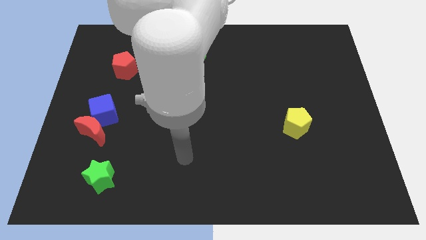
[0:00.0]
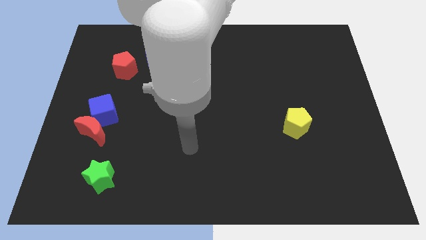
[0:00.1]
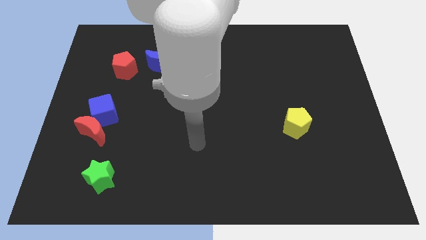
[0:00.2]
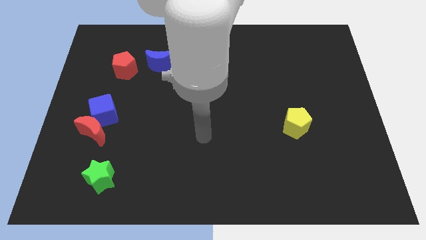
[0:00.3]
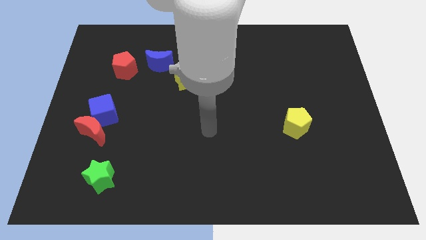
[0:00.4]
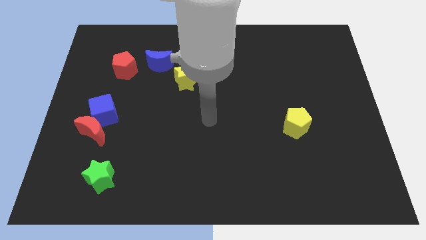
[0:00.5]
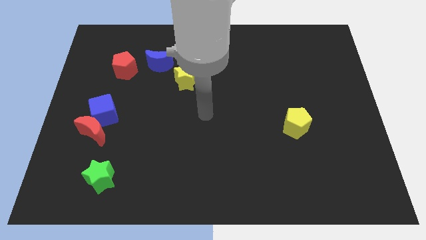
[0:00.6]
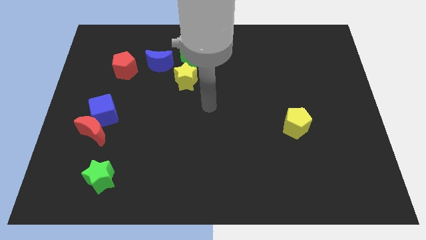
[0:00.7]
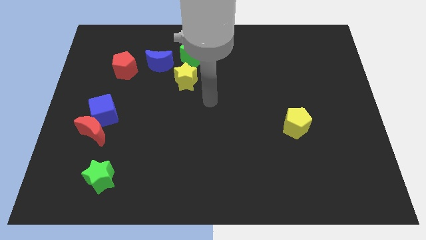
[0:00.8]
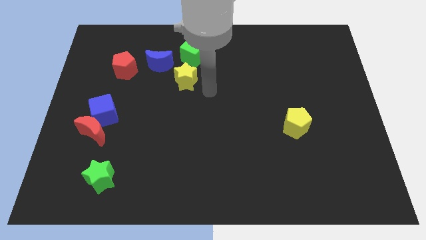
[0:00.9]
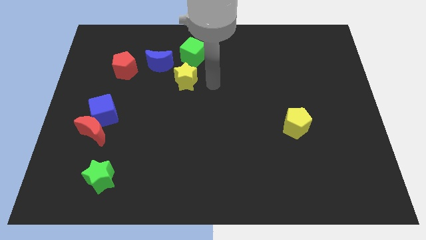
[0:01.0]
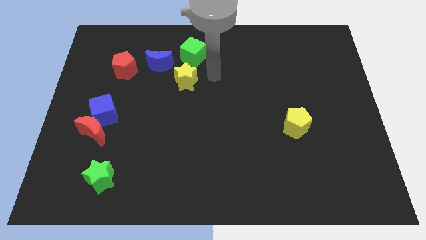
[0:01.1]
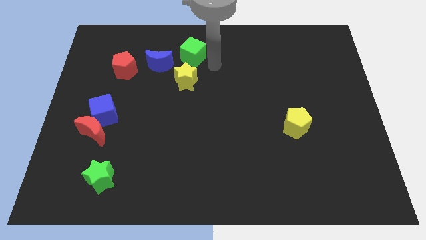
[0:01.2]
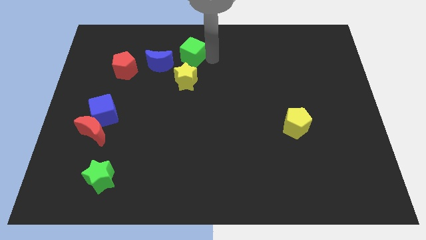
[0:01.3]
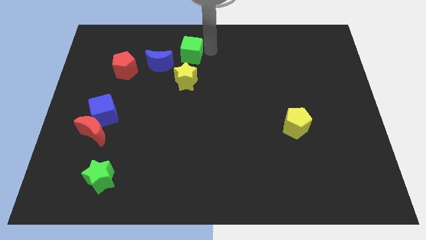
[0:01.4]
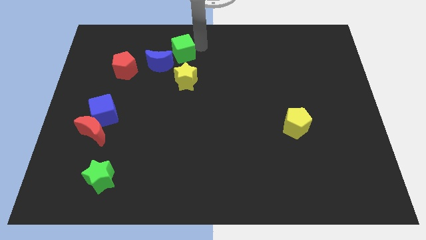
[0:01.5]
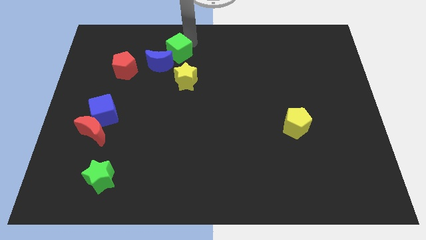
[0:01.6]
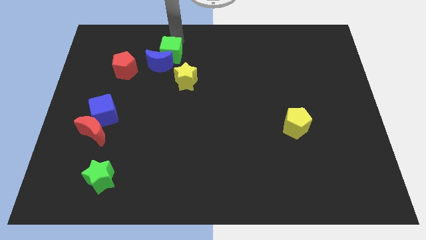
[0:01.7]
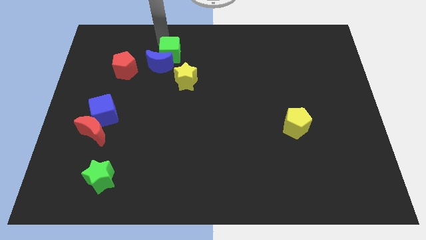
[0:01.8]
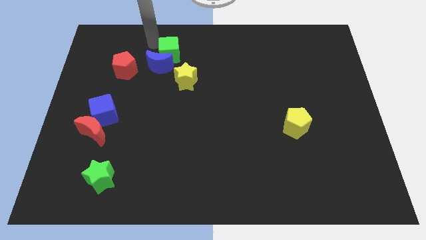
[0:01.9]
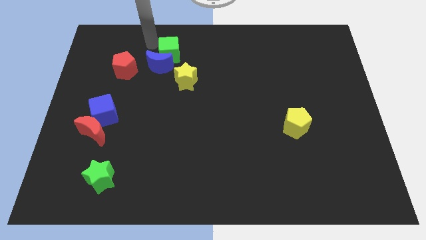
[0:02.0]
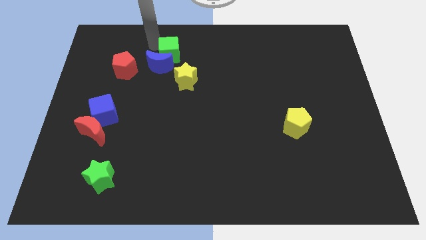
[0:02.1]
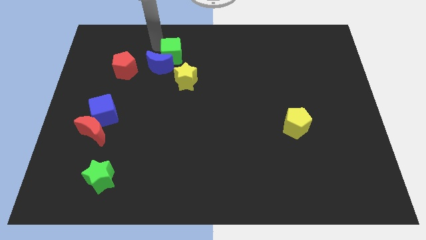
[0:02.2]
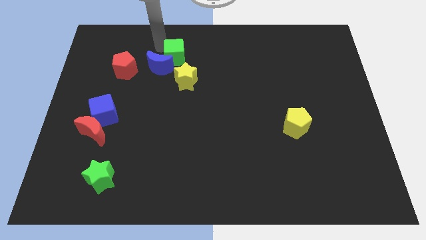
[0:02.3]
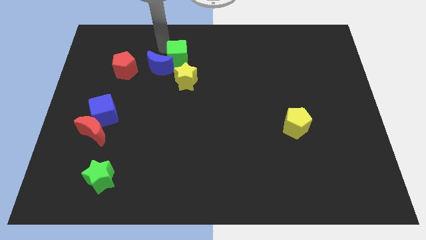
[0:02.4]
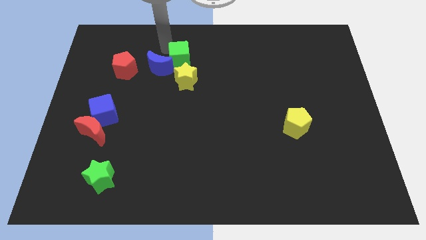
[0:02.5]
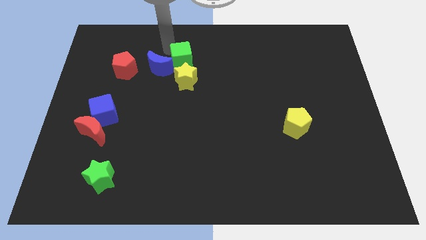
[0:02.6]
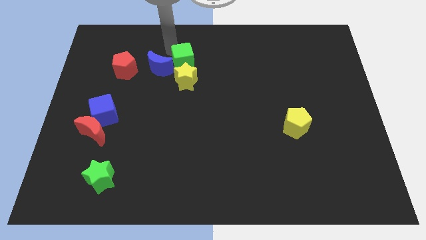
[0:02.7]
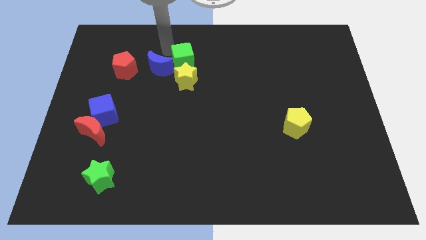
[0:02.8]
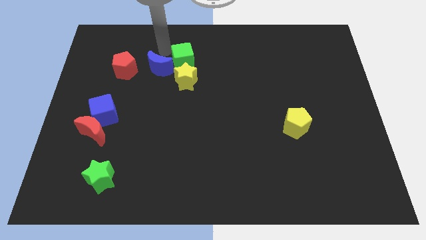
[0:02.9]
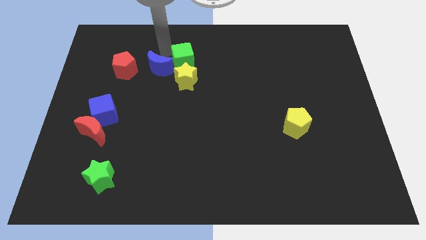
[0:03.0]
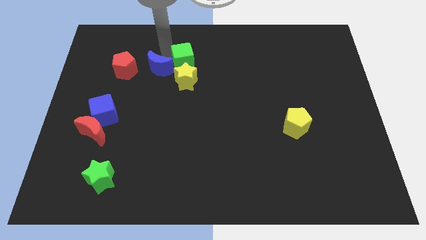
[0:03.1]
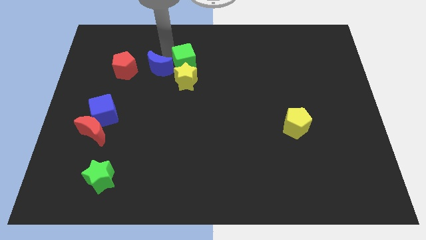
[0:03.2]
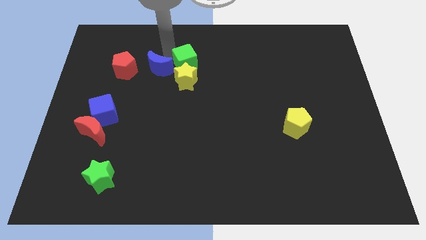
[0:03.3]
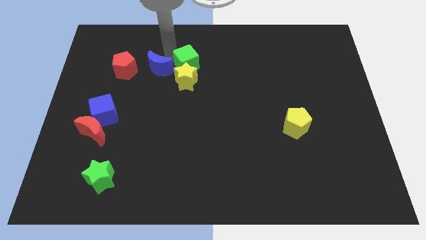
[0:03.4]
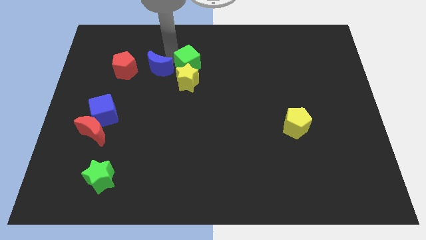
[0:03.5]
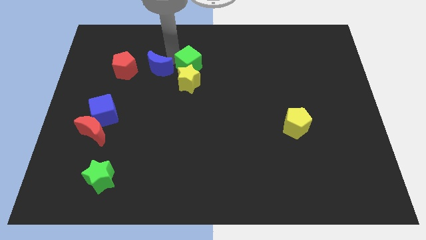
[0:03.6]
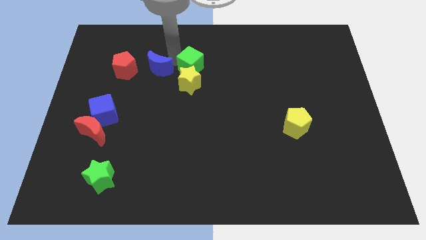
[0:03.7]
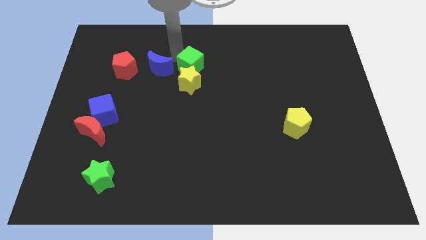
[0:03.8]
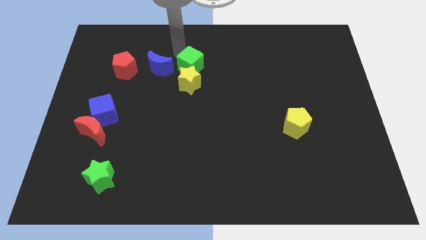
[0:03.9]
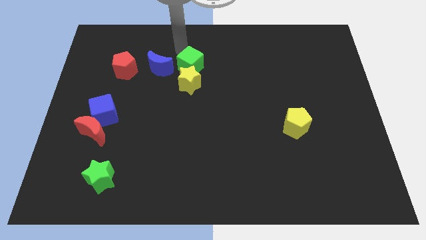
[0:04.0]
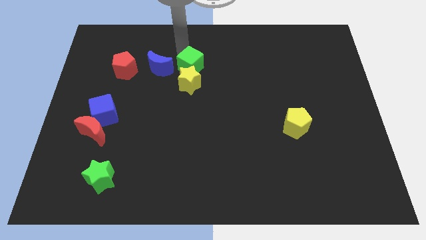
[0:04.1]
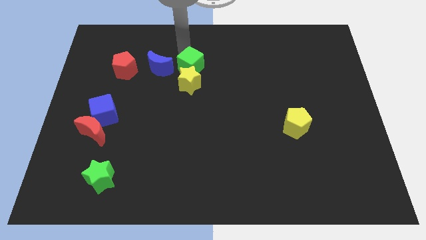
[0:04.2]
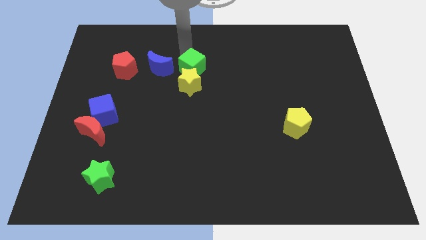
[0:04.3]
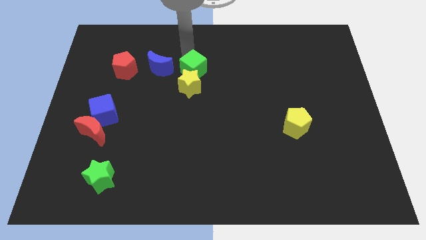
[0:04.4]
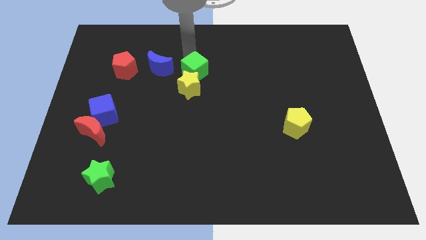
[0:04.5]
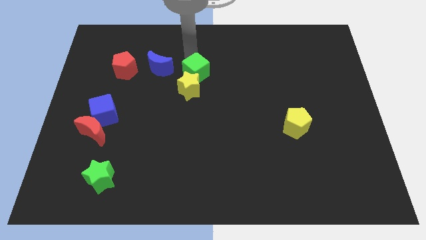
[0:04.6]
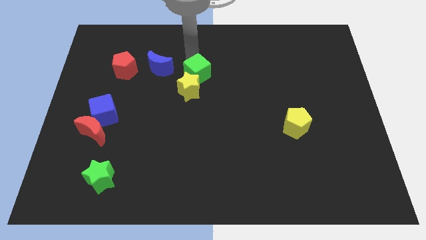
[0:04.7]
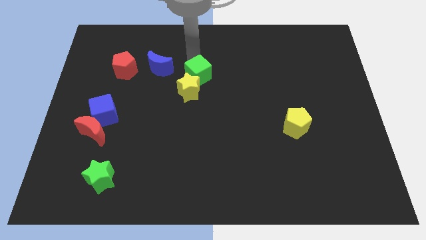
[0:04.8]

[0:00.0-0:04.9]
slightly slide the green cube downwards

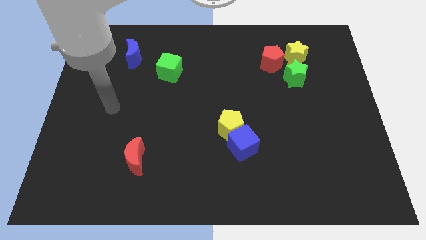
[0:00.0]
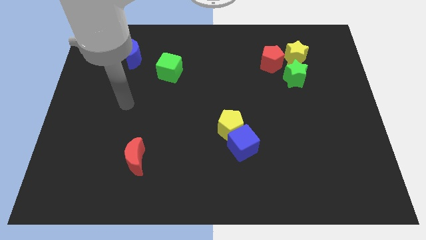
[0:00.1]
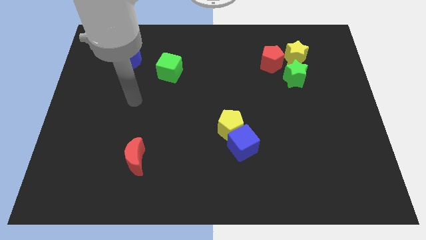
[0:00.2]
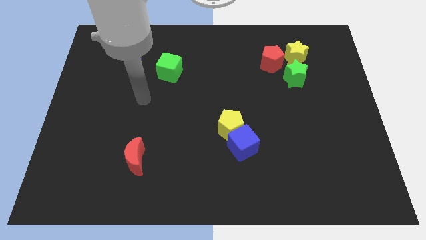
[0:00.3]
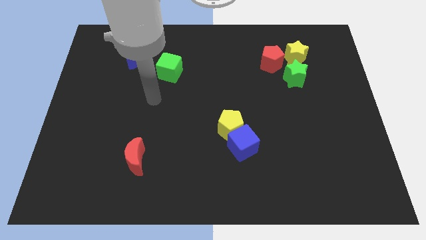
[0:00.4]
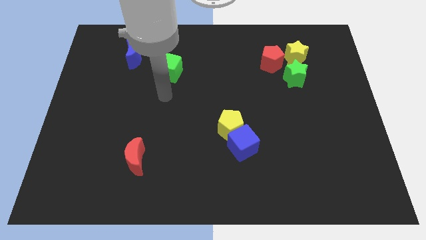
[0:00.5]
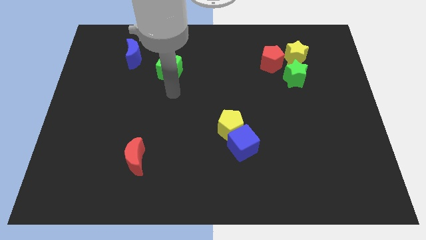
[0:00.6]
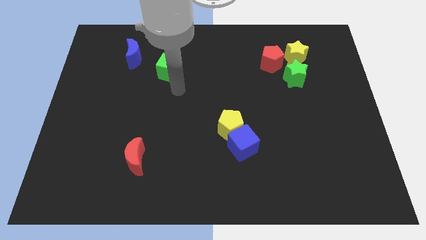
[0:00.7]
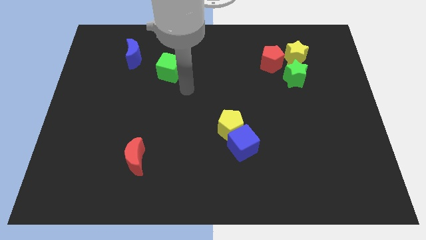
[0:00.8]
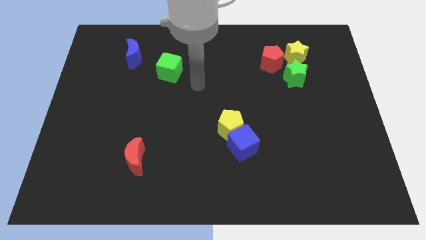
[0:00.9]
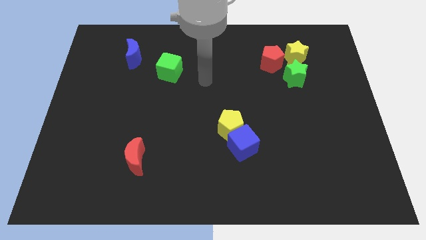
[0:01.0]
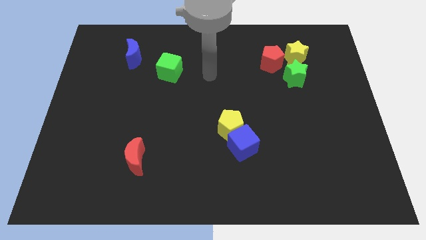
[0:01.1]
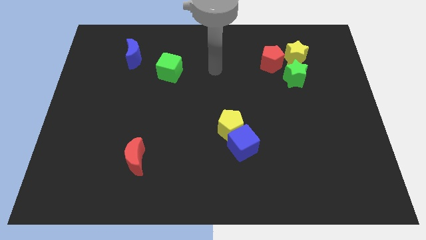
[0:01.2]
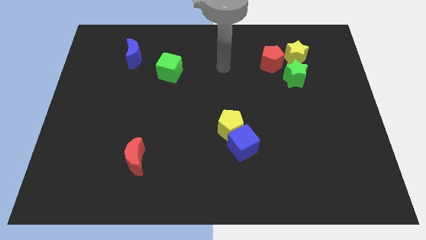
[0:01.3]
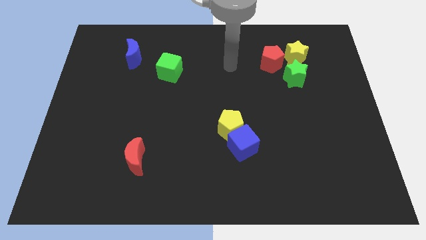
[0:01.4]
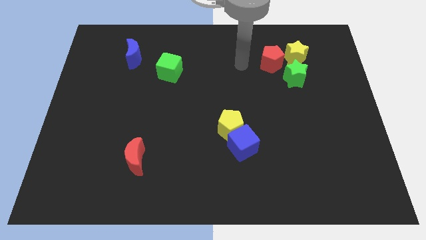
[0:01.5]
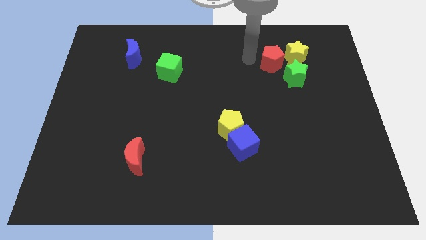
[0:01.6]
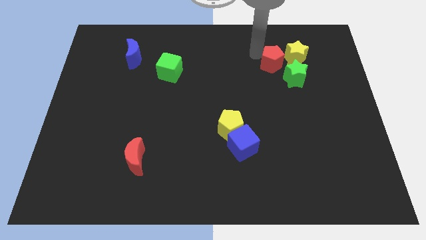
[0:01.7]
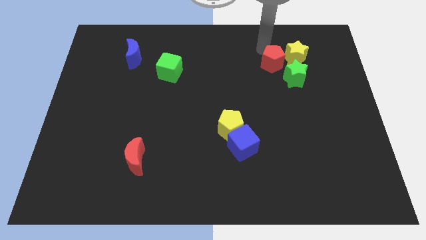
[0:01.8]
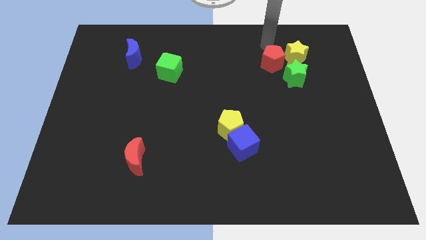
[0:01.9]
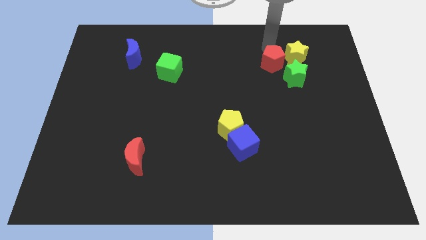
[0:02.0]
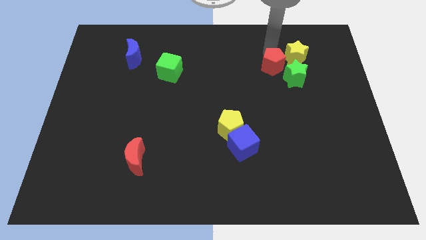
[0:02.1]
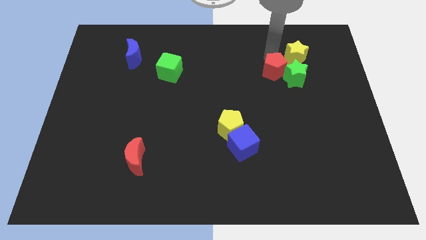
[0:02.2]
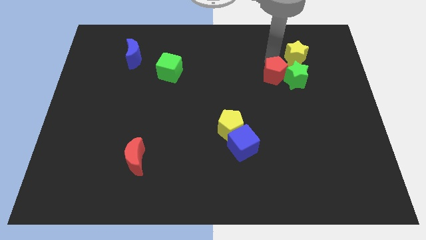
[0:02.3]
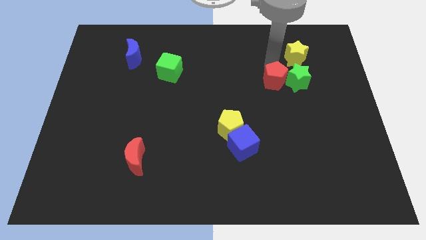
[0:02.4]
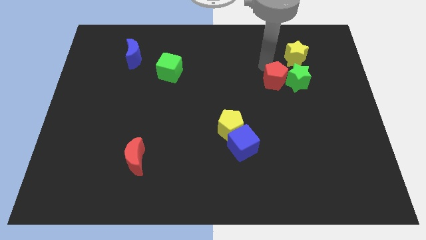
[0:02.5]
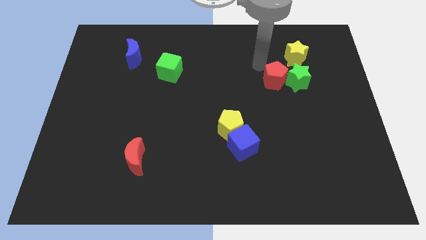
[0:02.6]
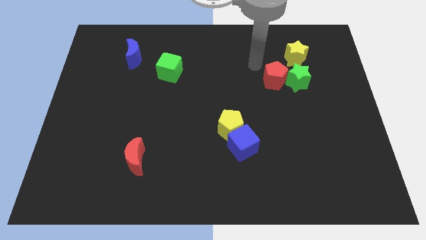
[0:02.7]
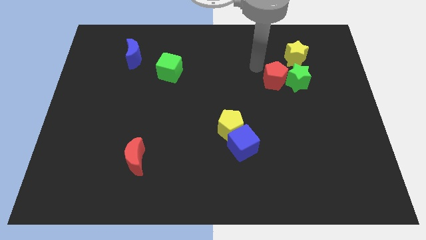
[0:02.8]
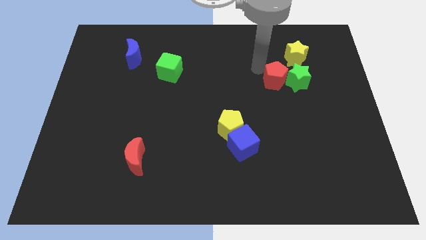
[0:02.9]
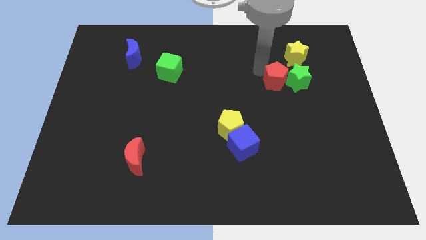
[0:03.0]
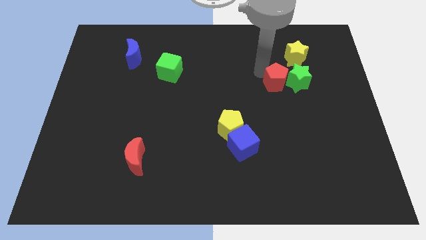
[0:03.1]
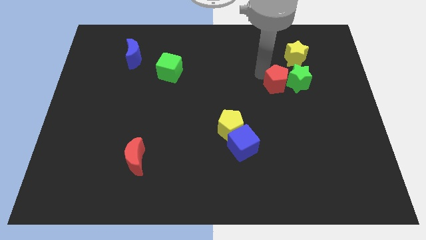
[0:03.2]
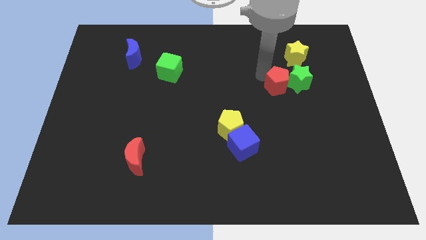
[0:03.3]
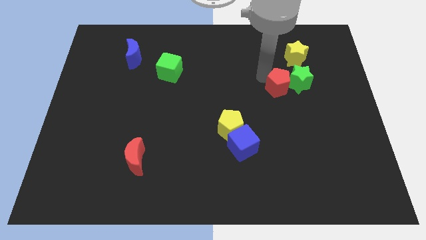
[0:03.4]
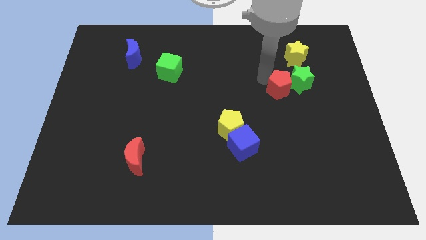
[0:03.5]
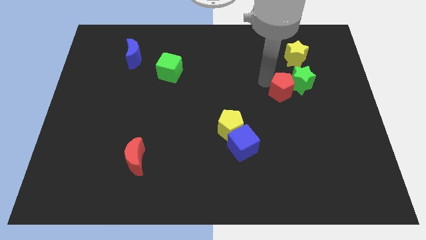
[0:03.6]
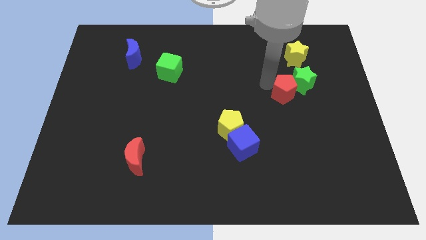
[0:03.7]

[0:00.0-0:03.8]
slide the red pentagon slightly down and to the right
